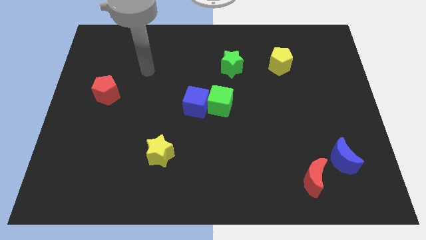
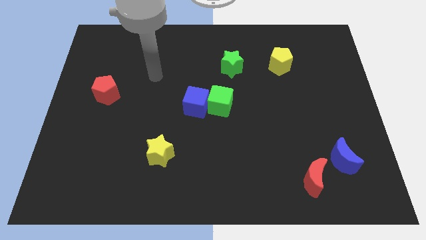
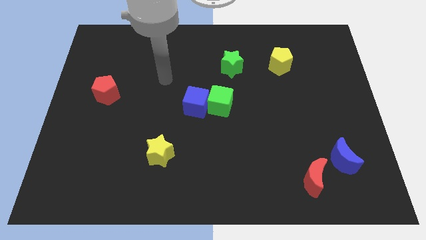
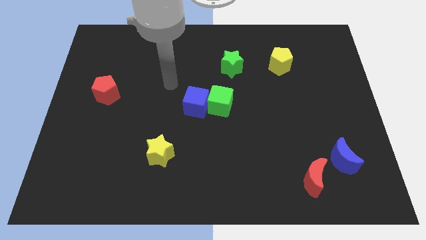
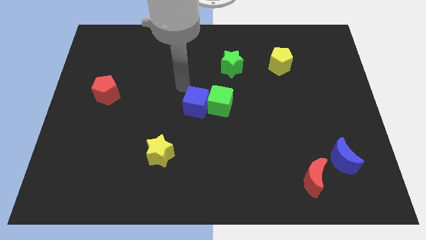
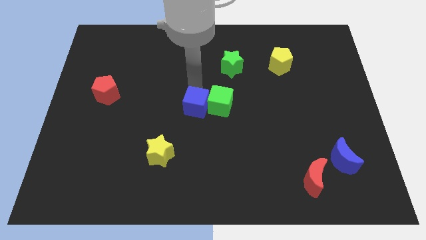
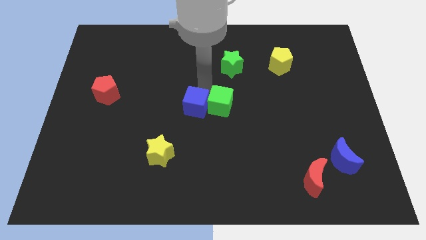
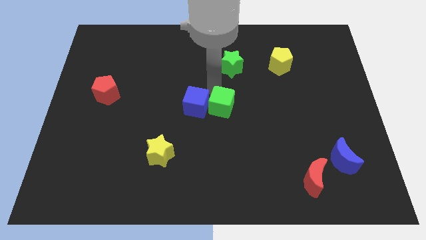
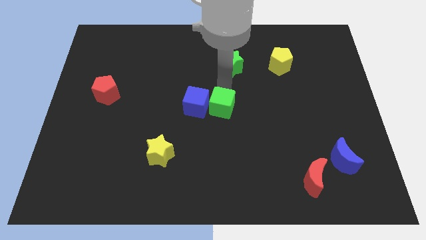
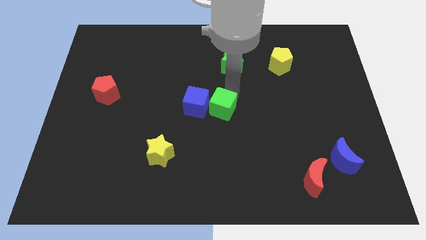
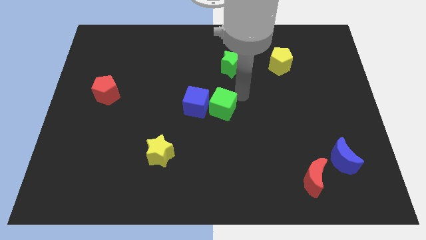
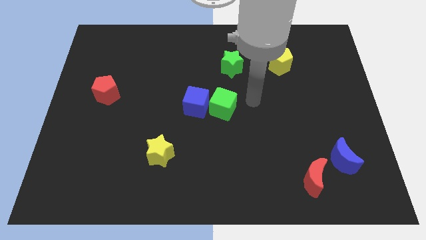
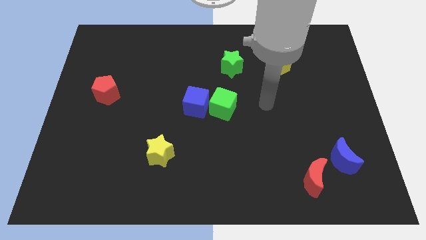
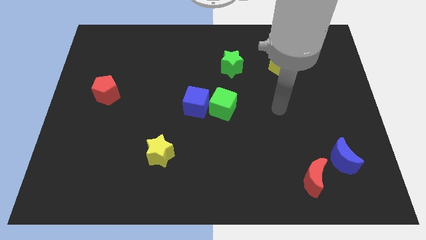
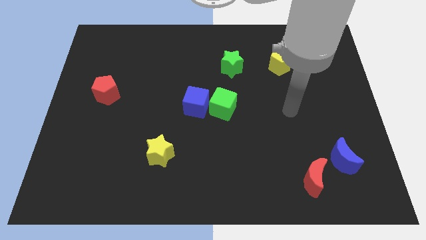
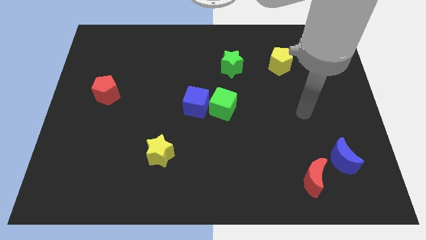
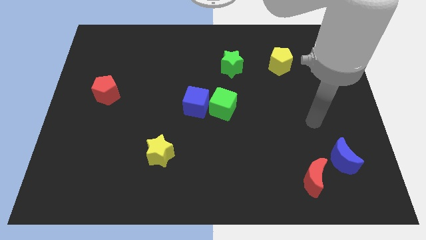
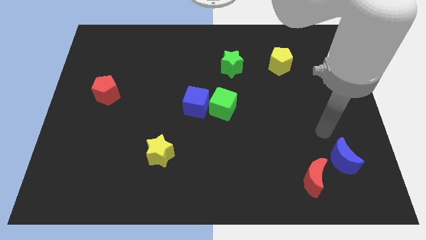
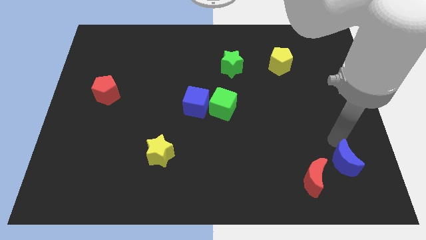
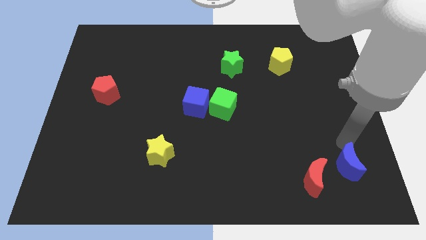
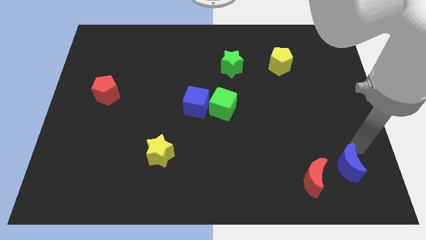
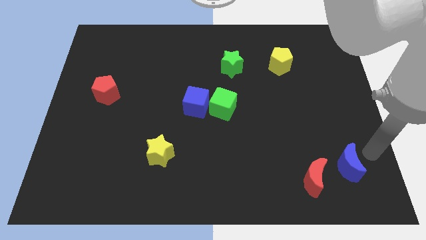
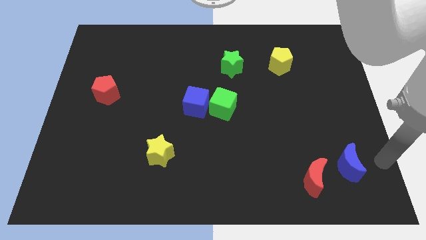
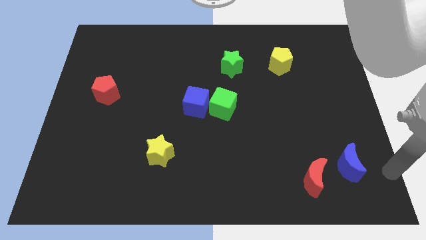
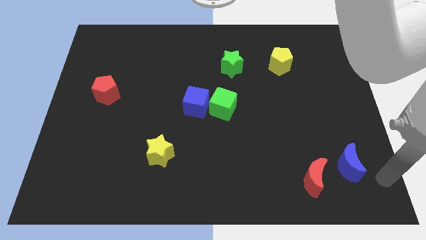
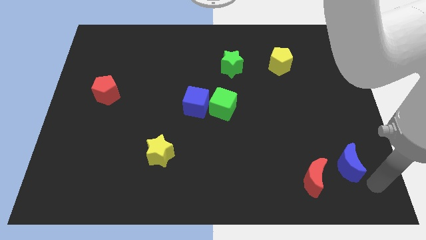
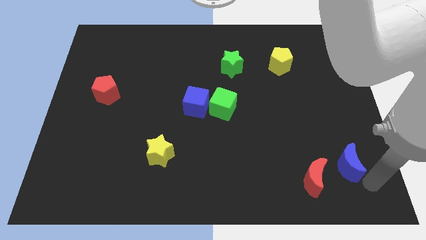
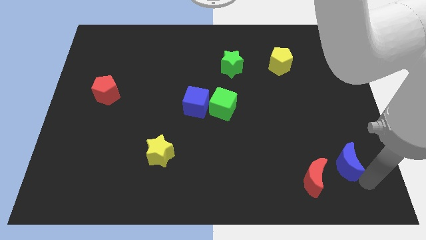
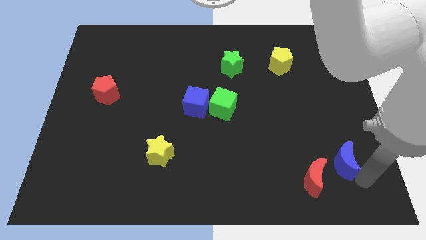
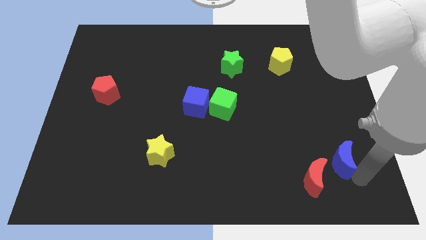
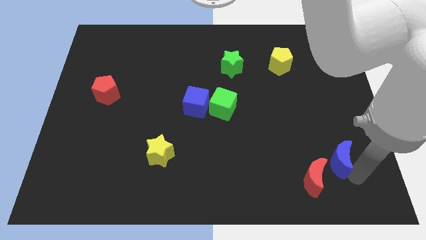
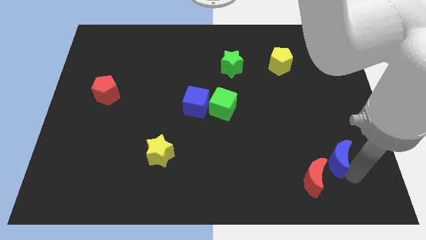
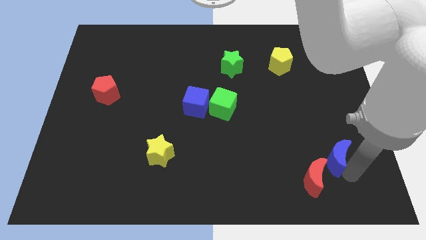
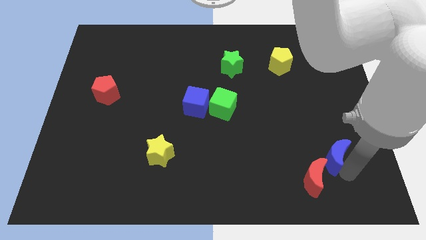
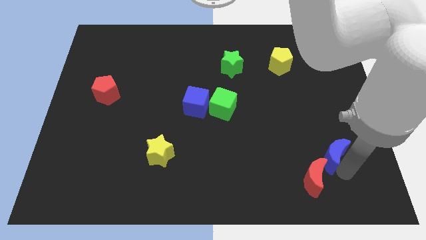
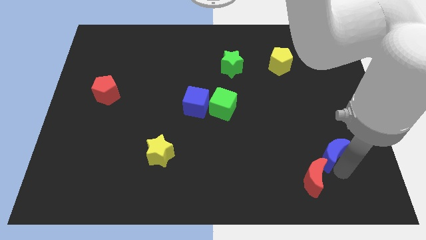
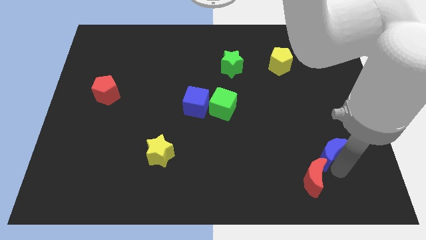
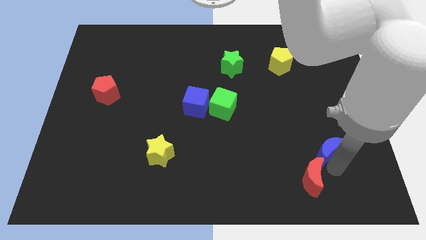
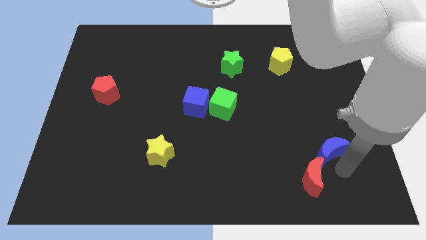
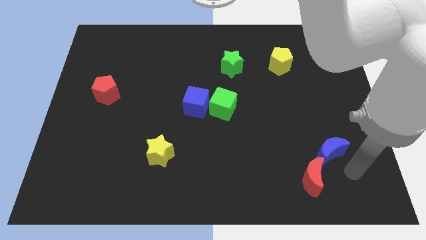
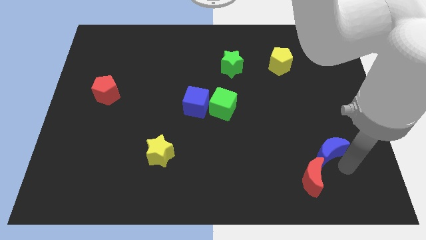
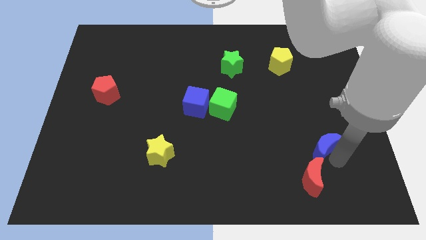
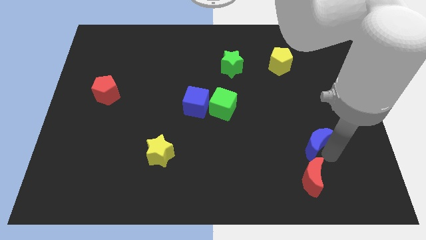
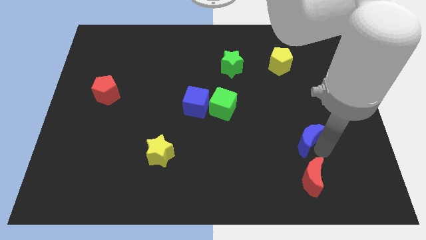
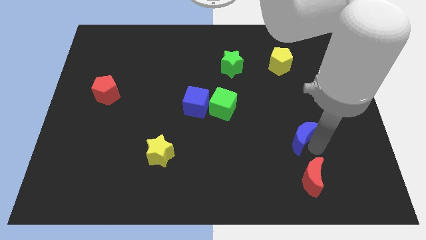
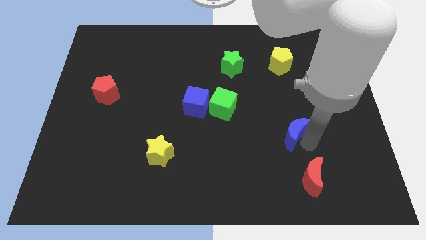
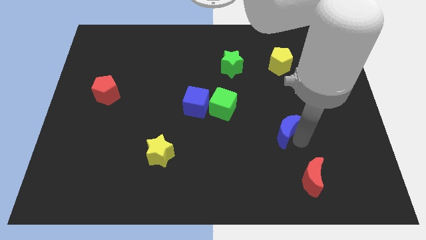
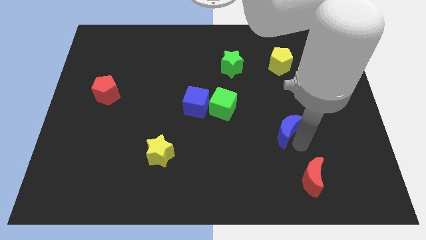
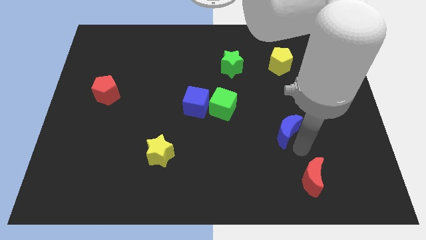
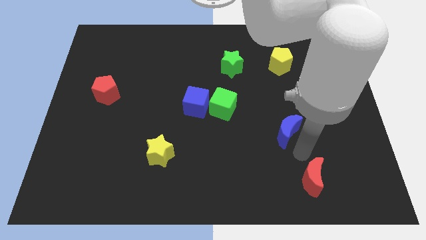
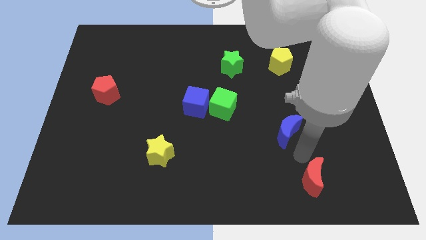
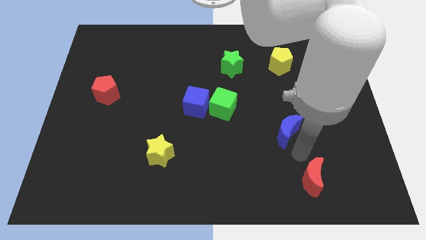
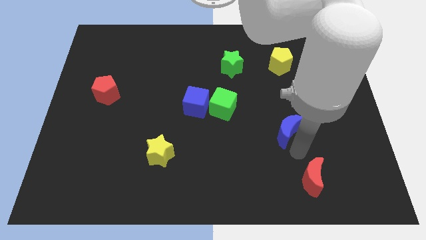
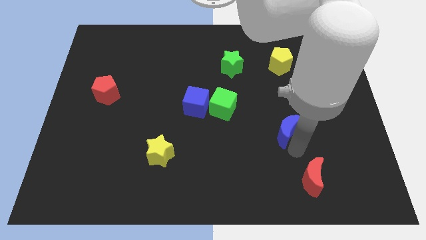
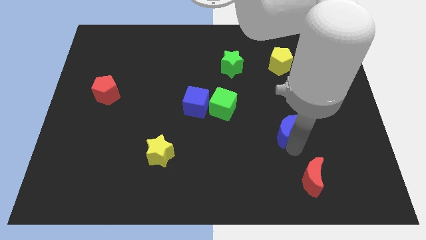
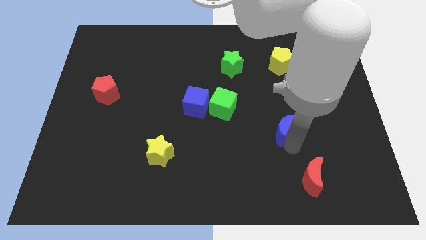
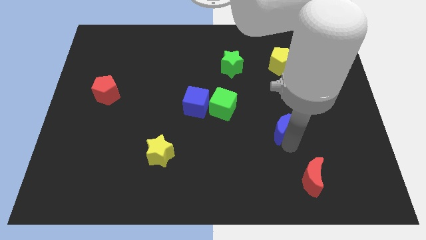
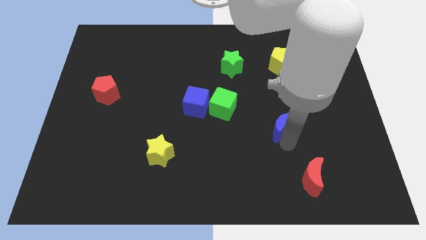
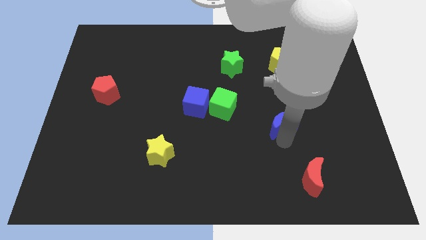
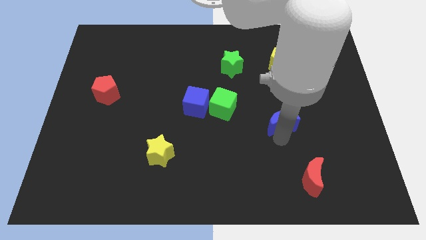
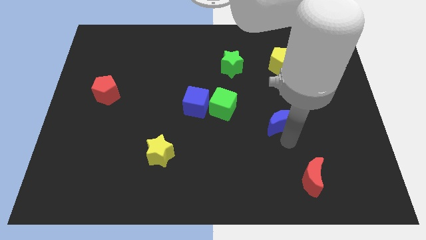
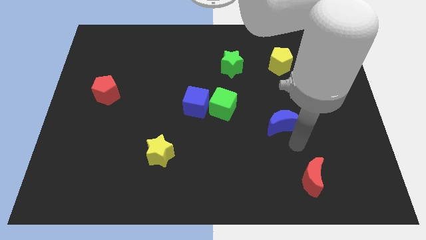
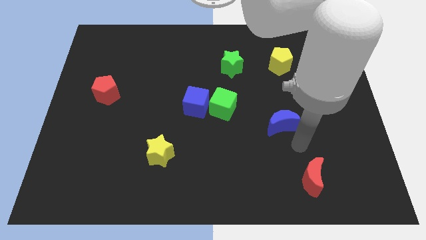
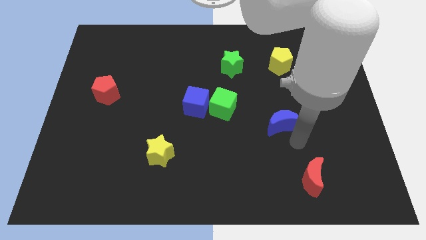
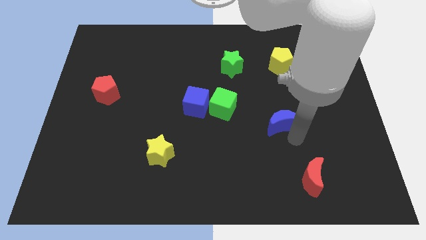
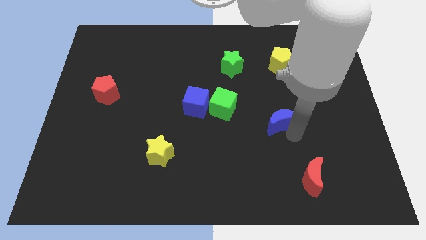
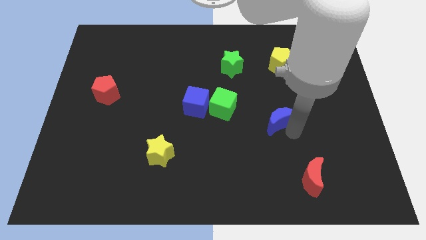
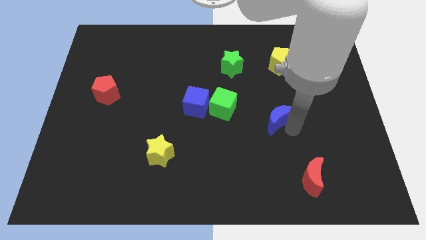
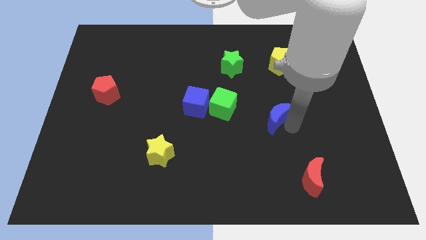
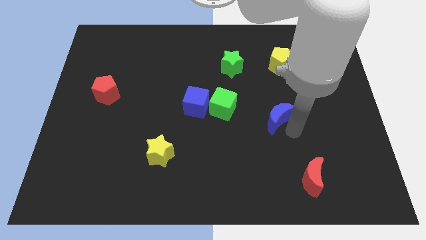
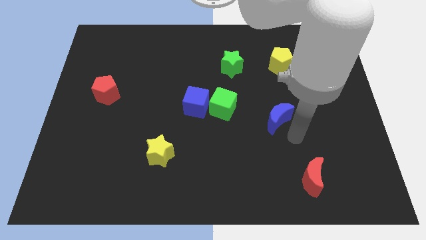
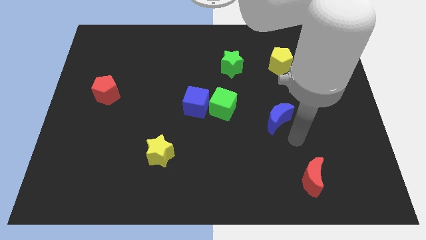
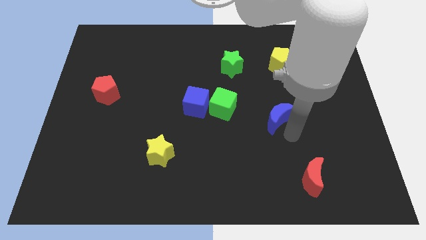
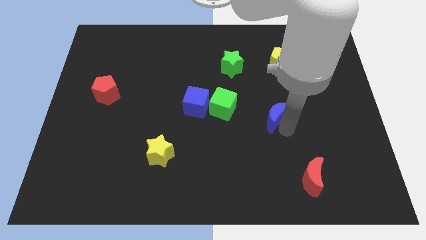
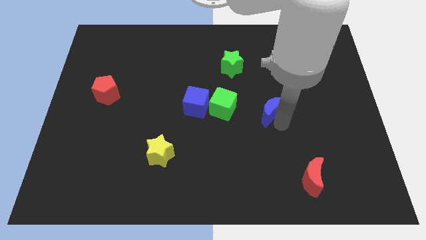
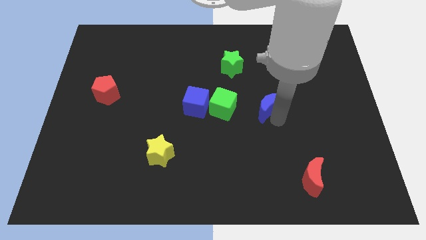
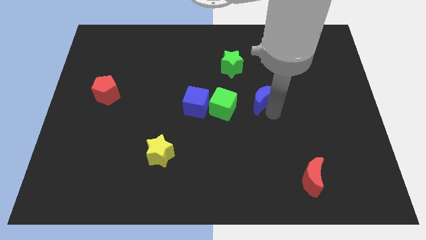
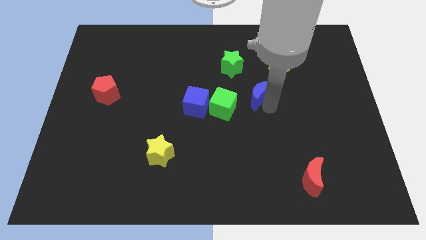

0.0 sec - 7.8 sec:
slide the blue moon to the top right side of the green cube
